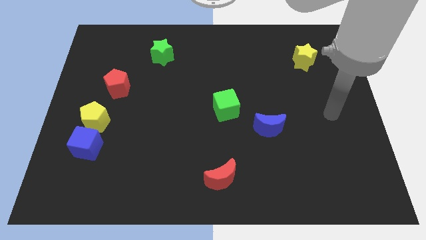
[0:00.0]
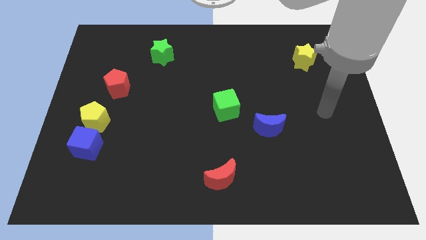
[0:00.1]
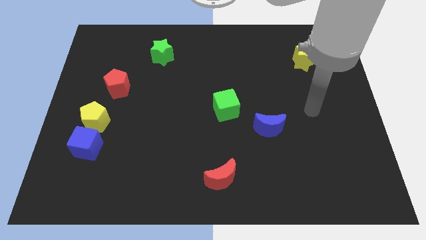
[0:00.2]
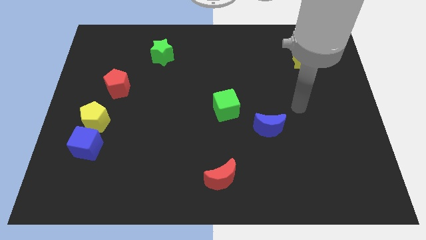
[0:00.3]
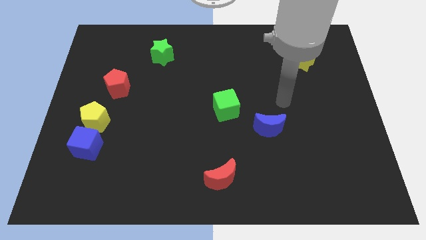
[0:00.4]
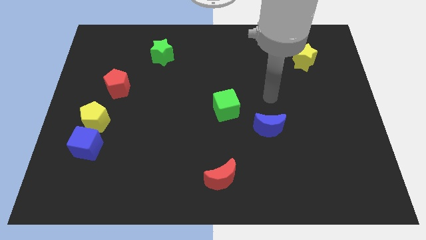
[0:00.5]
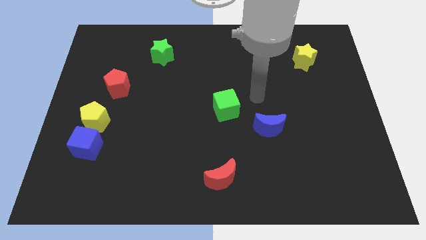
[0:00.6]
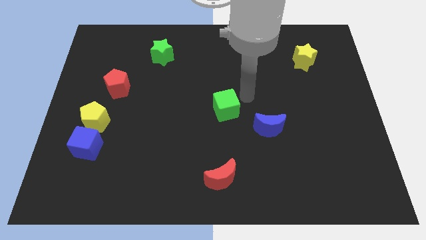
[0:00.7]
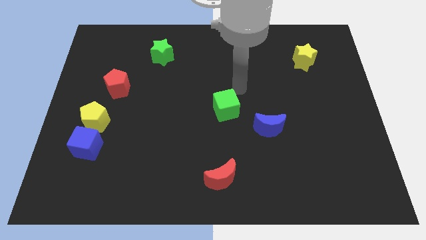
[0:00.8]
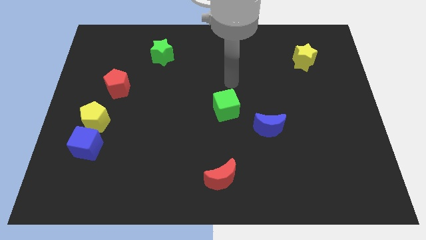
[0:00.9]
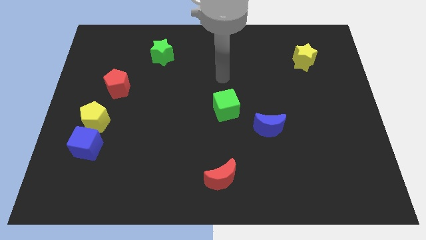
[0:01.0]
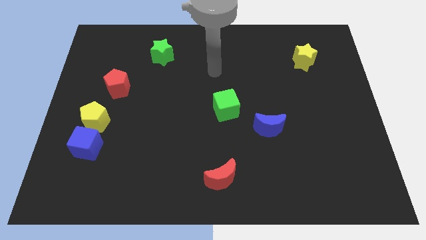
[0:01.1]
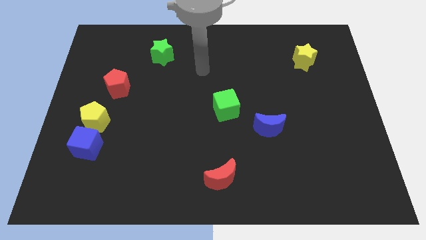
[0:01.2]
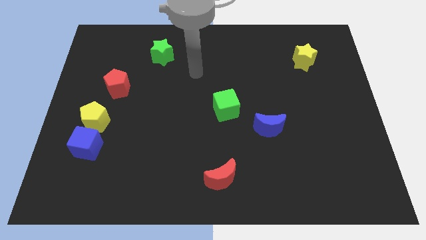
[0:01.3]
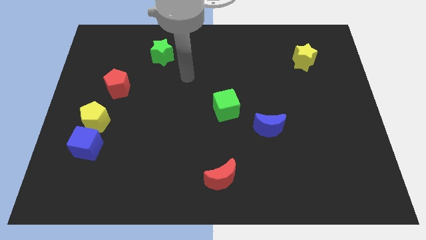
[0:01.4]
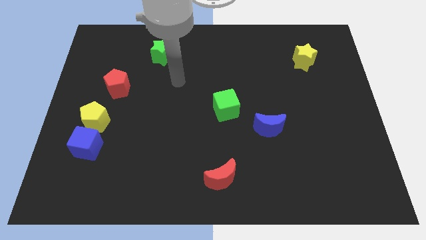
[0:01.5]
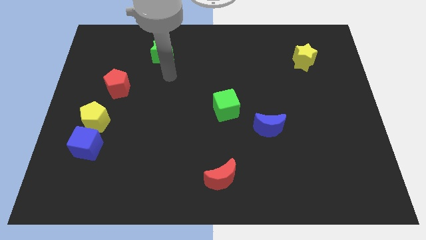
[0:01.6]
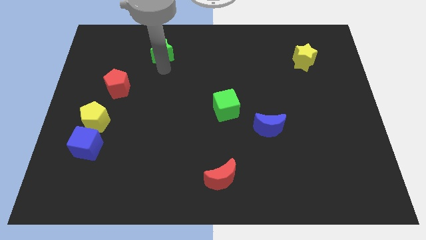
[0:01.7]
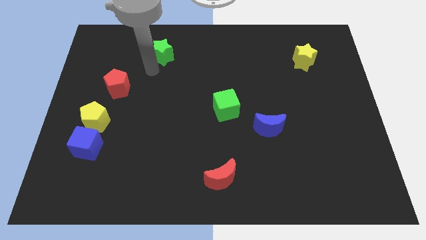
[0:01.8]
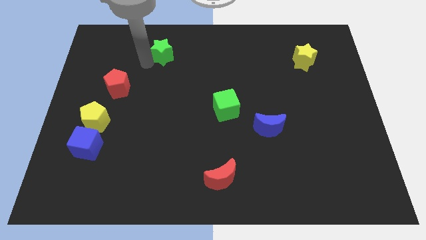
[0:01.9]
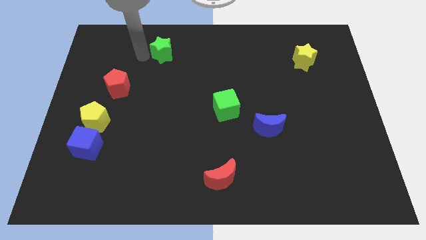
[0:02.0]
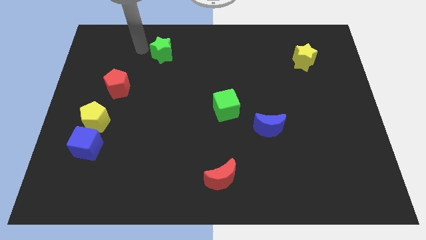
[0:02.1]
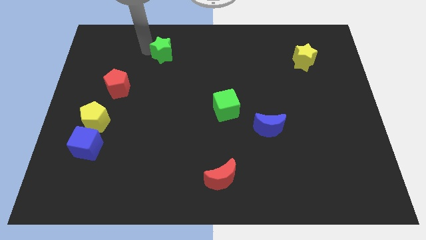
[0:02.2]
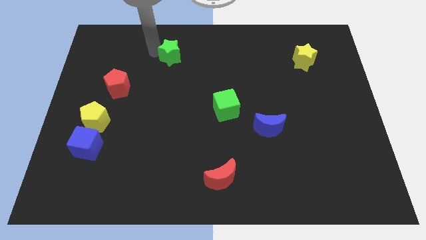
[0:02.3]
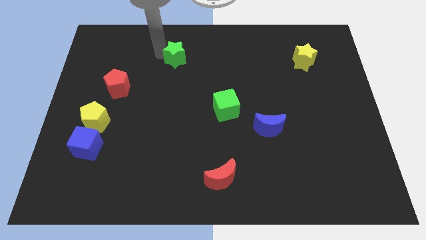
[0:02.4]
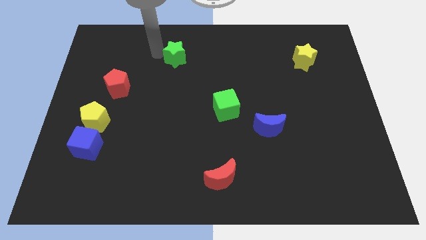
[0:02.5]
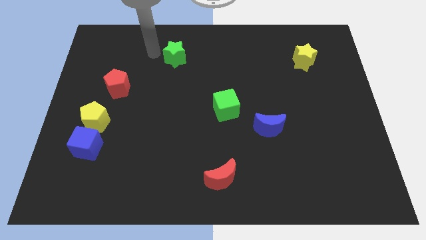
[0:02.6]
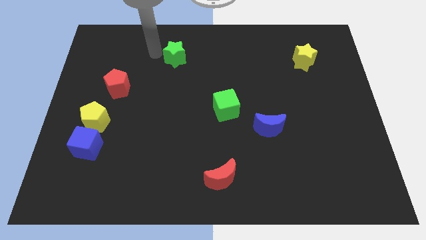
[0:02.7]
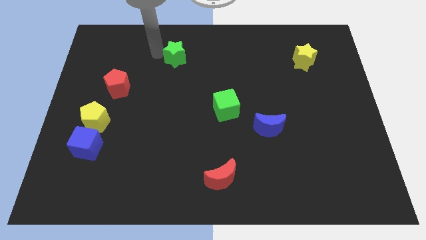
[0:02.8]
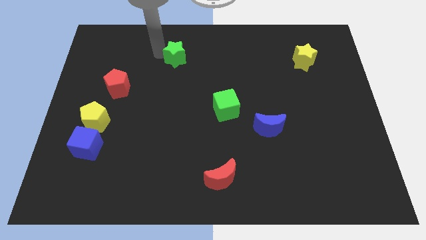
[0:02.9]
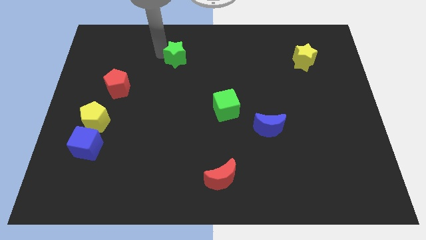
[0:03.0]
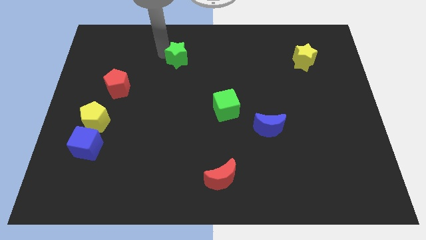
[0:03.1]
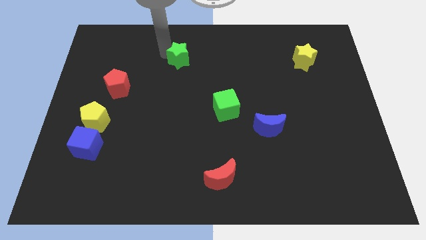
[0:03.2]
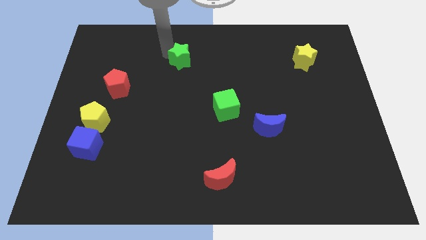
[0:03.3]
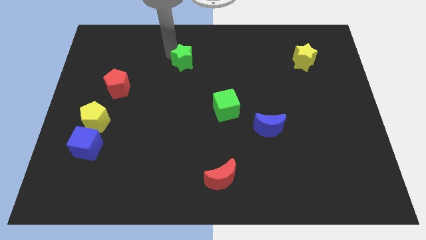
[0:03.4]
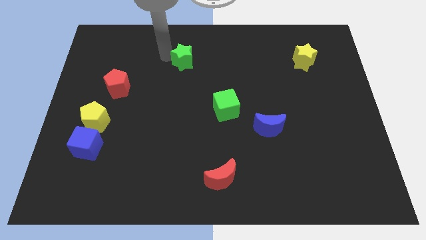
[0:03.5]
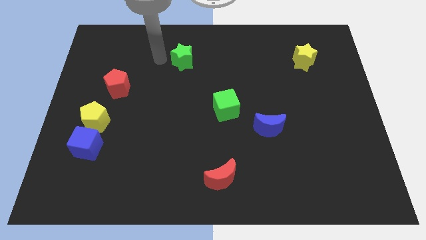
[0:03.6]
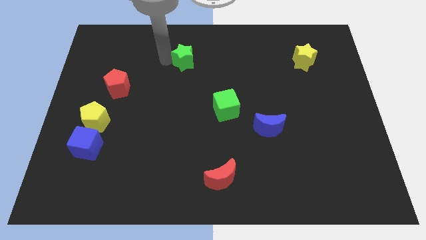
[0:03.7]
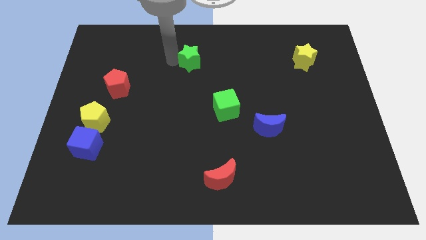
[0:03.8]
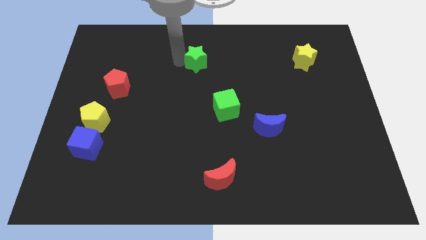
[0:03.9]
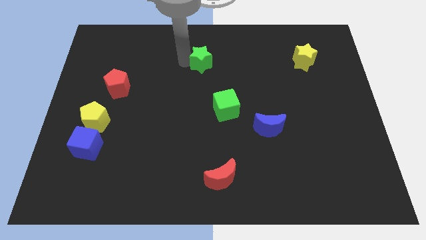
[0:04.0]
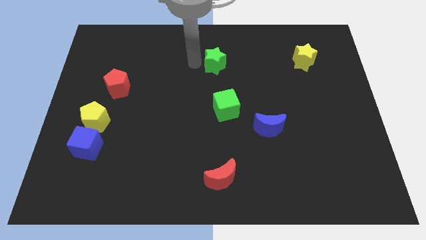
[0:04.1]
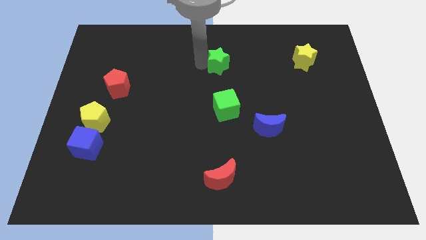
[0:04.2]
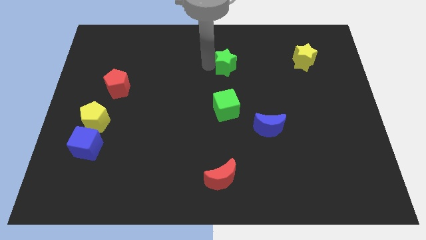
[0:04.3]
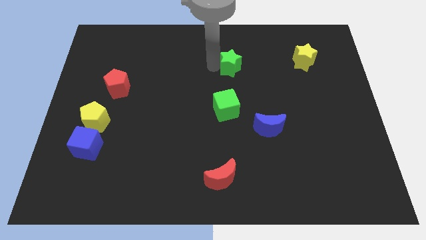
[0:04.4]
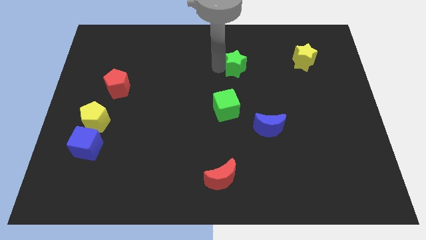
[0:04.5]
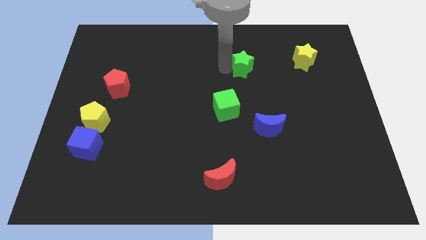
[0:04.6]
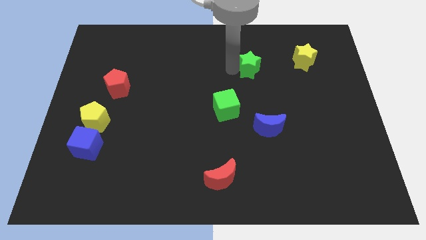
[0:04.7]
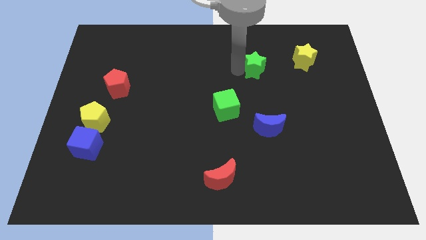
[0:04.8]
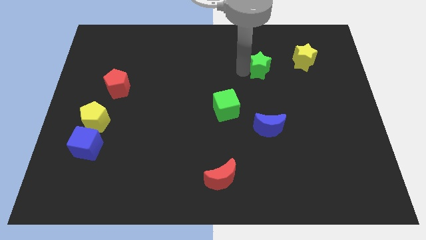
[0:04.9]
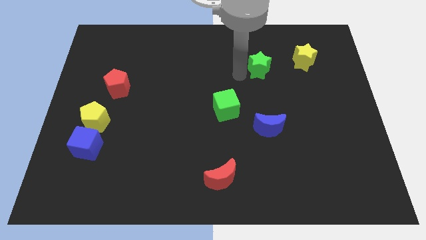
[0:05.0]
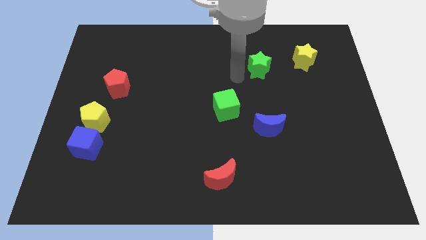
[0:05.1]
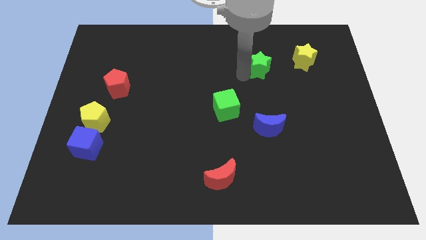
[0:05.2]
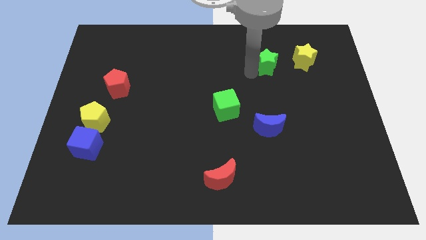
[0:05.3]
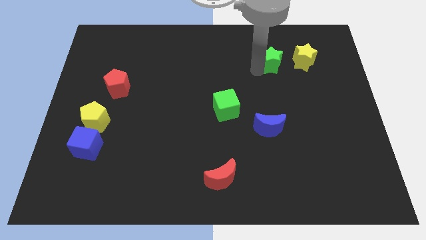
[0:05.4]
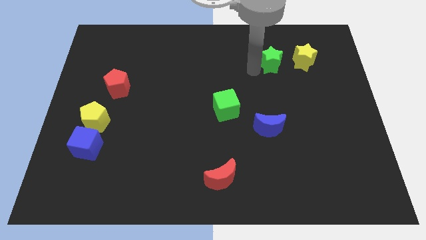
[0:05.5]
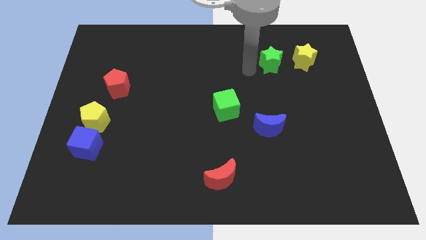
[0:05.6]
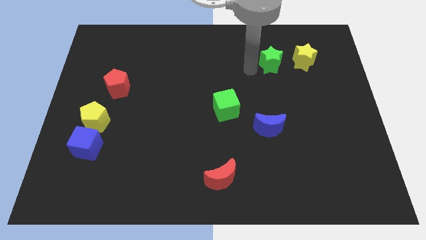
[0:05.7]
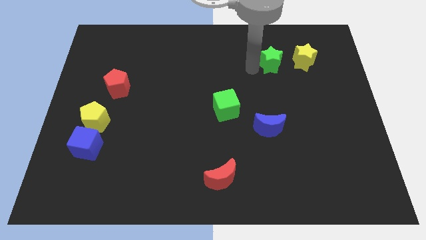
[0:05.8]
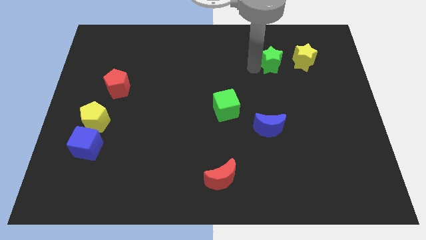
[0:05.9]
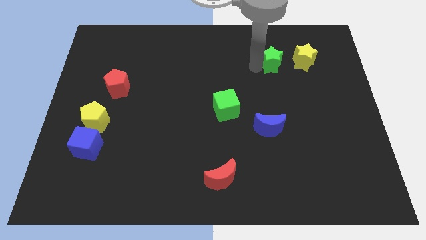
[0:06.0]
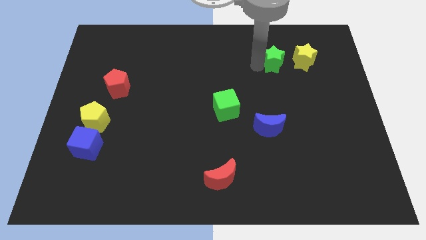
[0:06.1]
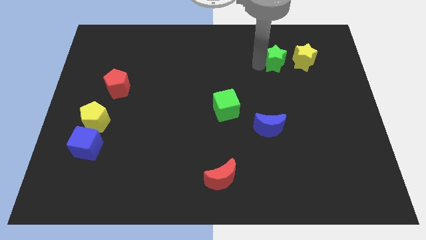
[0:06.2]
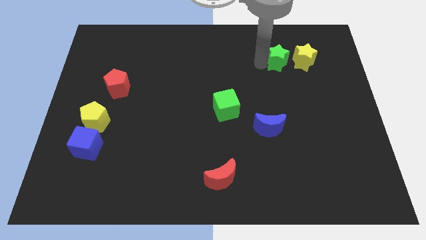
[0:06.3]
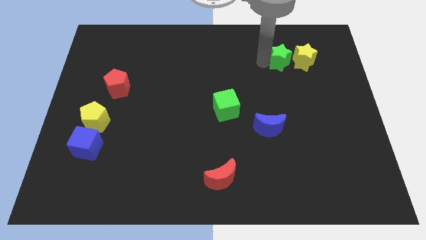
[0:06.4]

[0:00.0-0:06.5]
slide the green star towards the yellow star

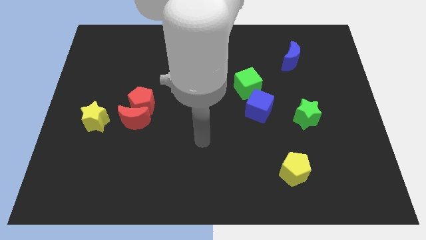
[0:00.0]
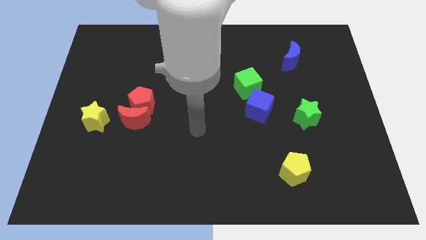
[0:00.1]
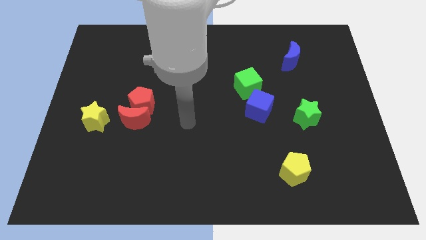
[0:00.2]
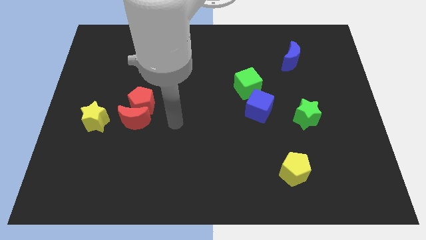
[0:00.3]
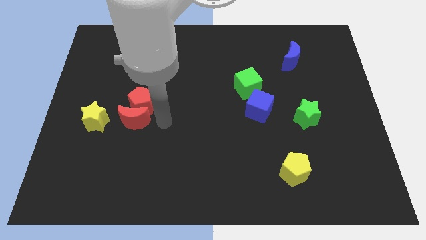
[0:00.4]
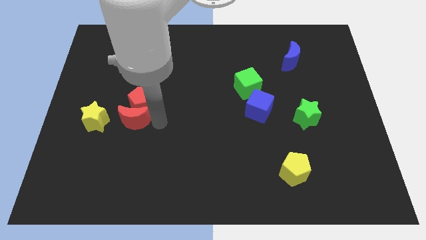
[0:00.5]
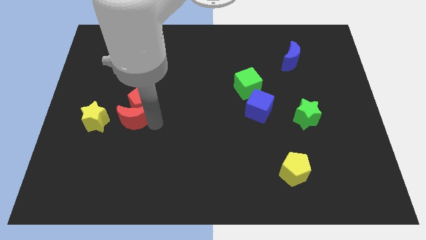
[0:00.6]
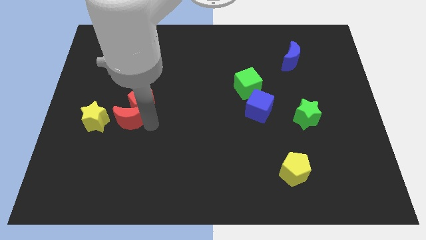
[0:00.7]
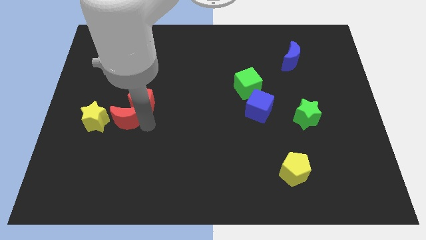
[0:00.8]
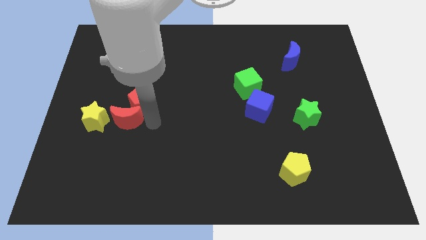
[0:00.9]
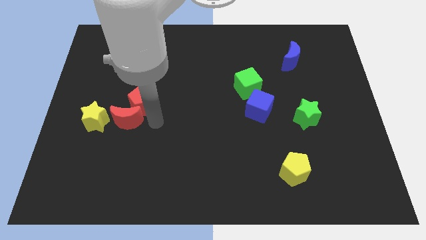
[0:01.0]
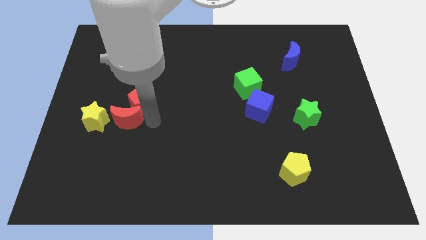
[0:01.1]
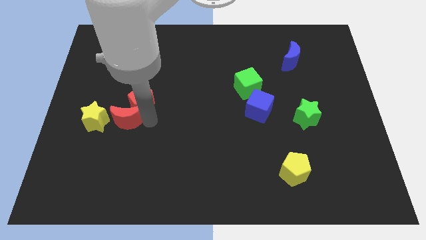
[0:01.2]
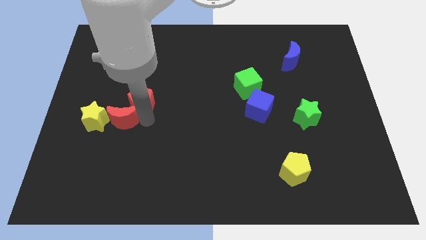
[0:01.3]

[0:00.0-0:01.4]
push the red moon towards the yellow star
